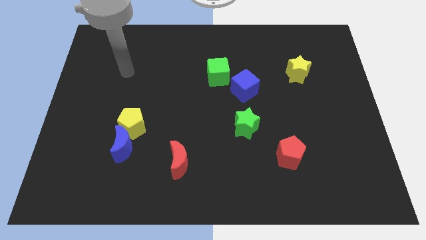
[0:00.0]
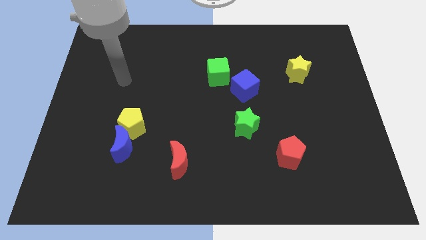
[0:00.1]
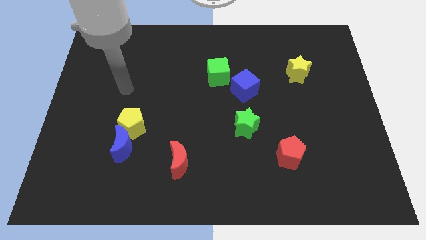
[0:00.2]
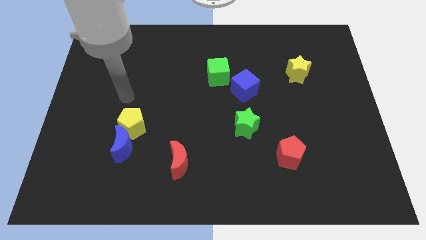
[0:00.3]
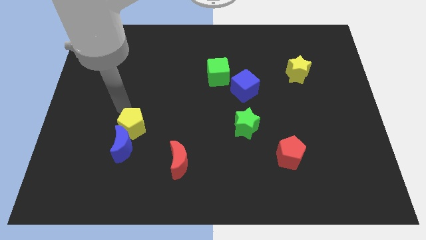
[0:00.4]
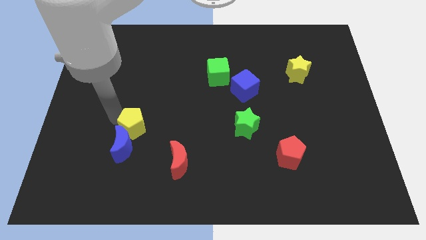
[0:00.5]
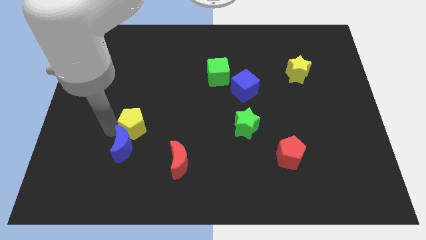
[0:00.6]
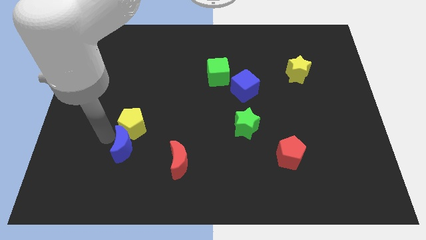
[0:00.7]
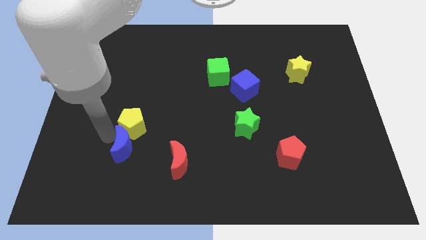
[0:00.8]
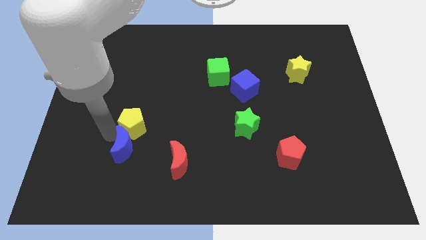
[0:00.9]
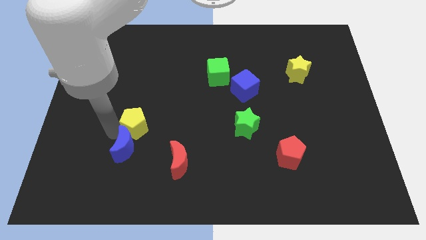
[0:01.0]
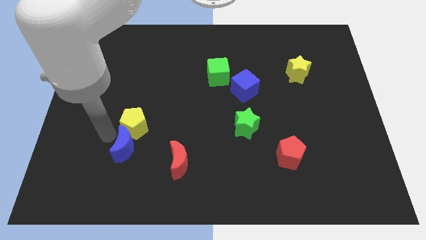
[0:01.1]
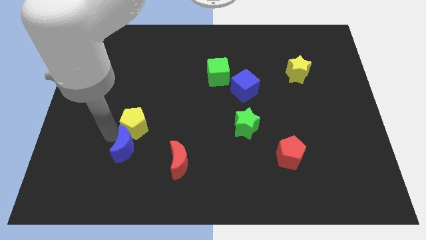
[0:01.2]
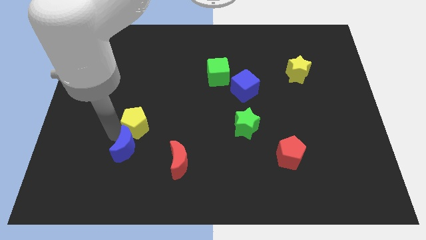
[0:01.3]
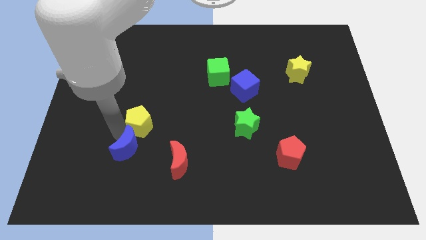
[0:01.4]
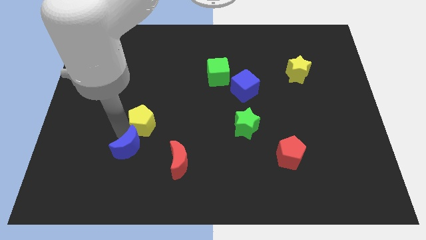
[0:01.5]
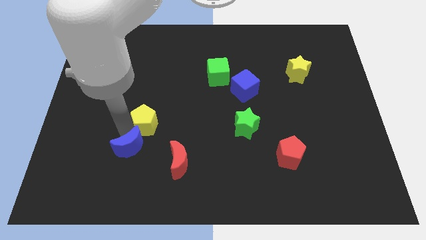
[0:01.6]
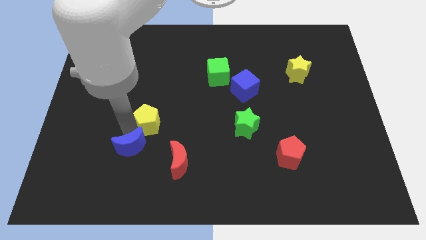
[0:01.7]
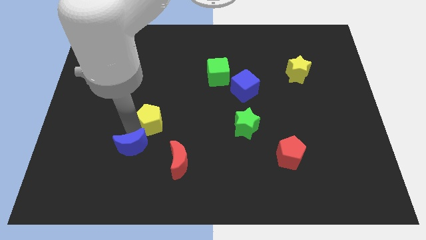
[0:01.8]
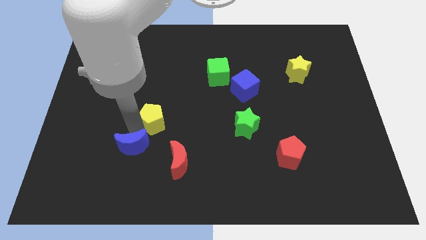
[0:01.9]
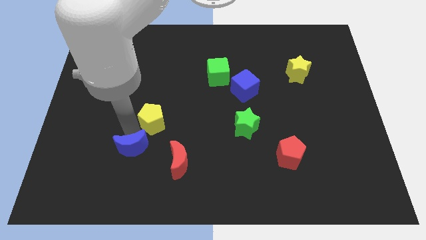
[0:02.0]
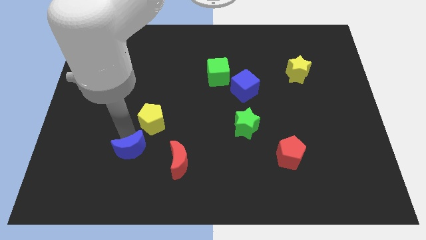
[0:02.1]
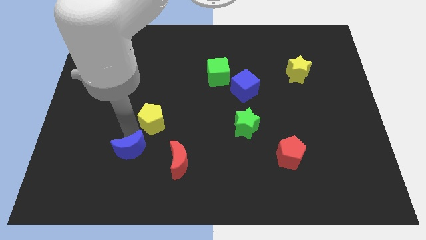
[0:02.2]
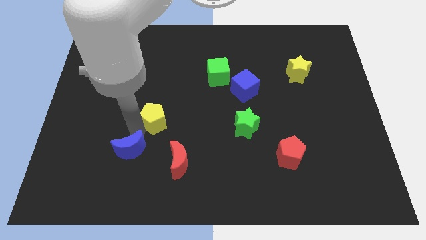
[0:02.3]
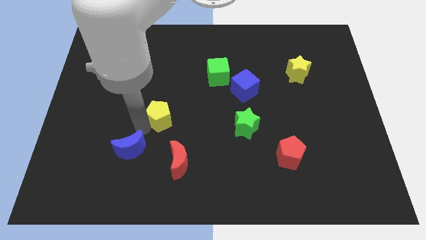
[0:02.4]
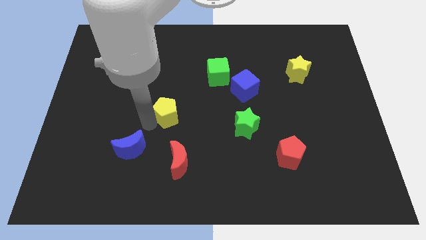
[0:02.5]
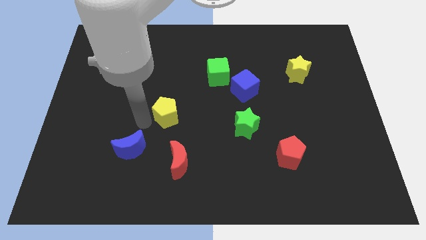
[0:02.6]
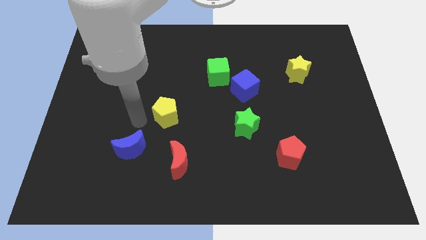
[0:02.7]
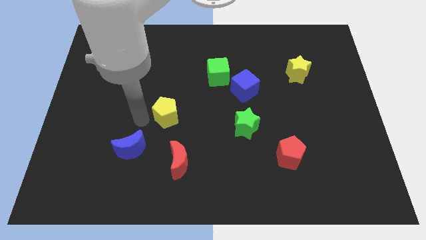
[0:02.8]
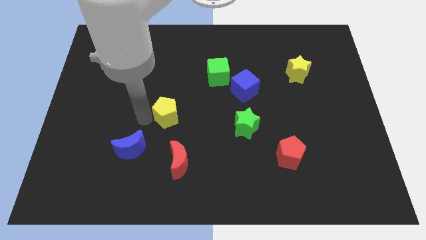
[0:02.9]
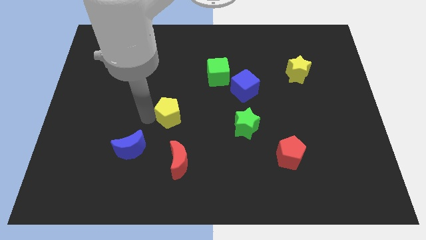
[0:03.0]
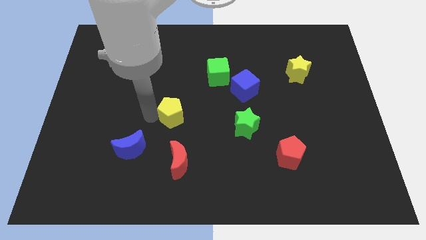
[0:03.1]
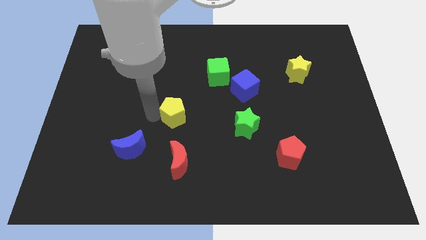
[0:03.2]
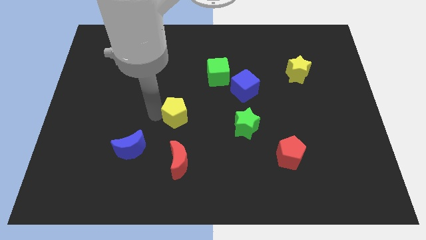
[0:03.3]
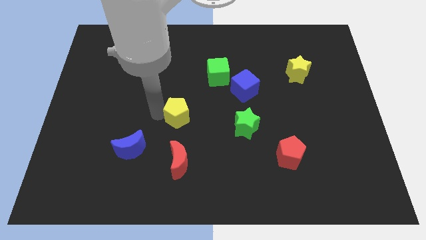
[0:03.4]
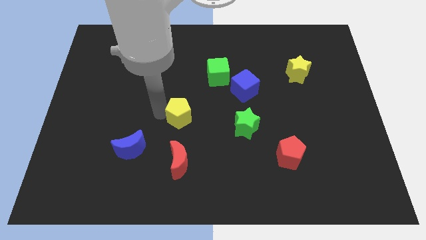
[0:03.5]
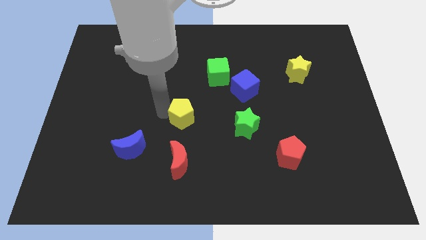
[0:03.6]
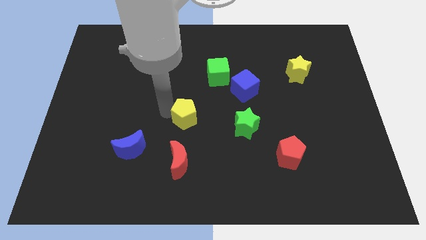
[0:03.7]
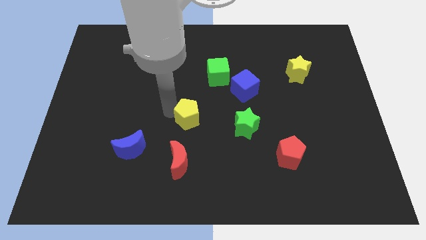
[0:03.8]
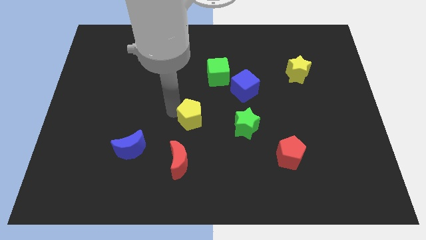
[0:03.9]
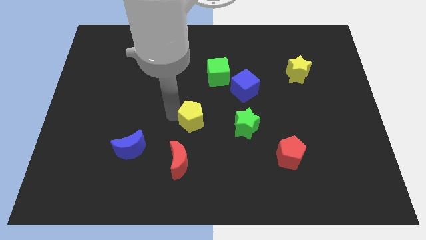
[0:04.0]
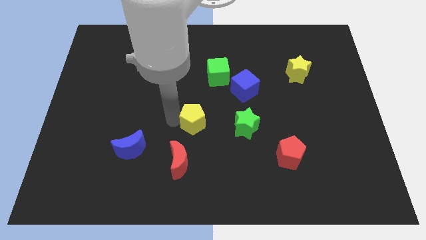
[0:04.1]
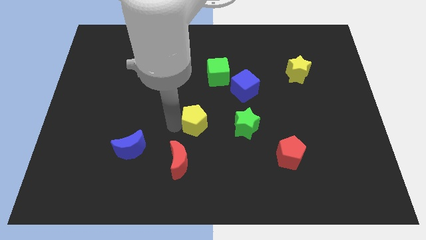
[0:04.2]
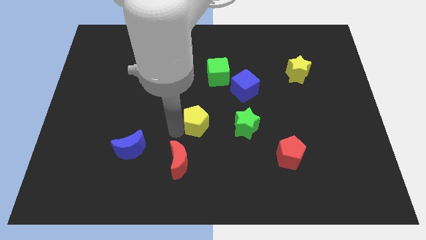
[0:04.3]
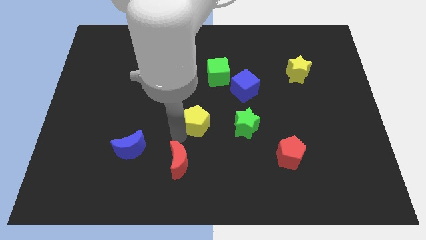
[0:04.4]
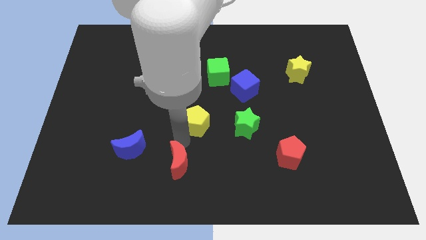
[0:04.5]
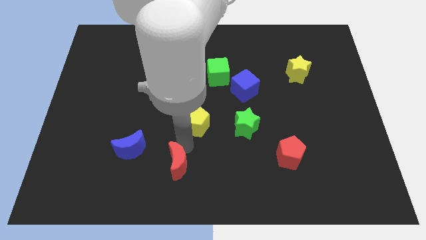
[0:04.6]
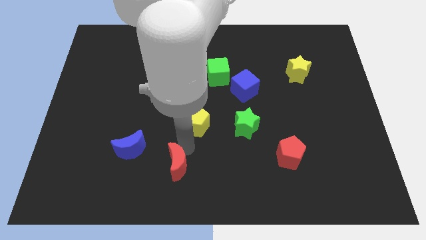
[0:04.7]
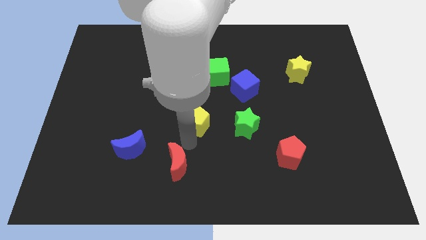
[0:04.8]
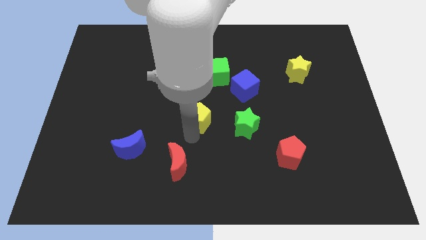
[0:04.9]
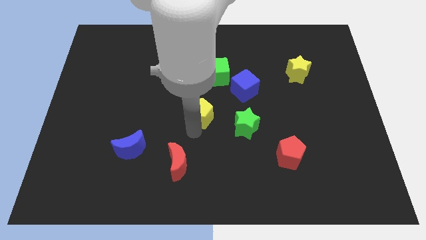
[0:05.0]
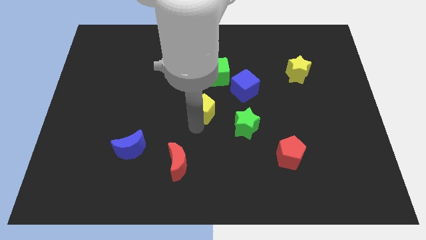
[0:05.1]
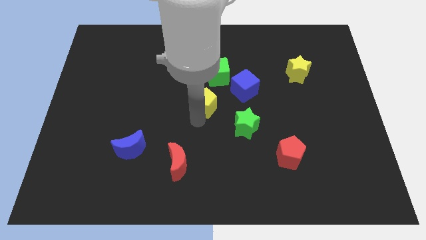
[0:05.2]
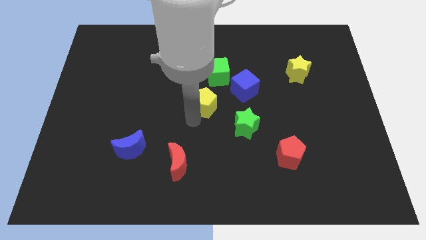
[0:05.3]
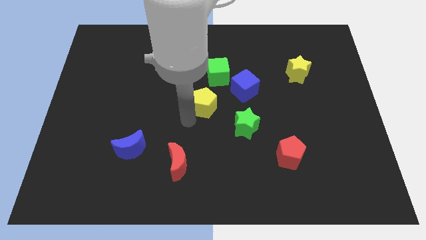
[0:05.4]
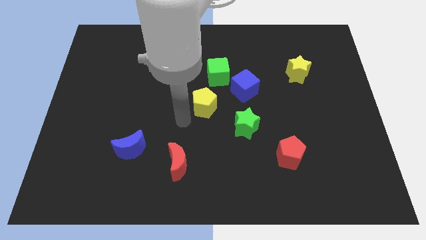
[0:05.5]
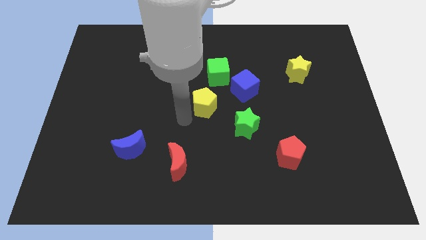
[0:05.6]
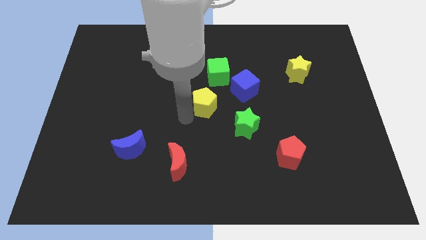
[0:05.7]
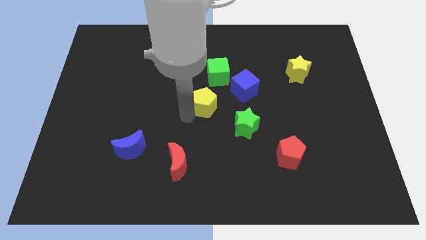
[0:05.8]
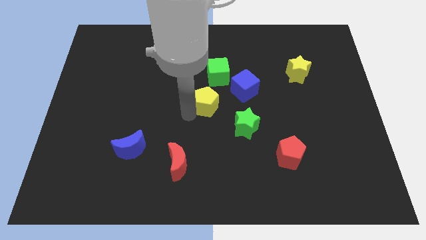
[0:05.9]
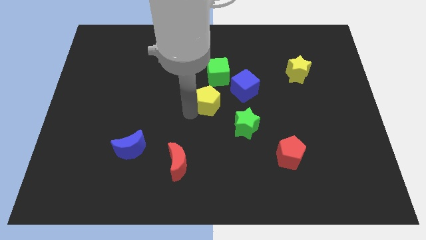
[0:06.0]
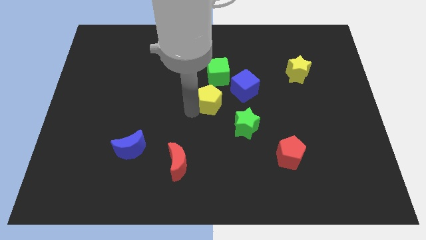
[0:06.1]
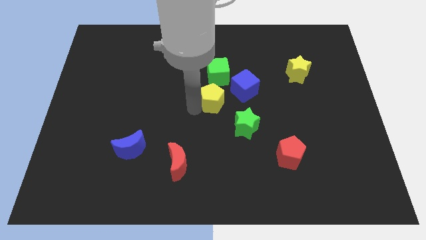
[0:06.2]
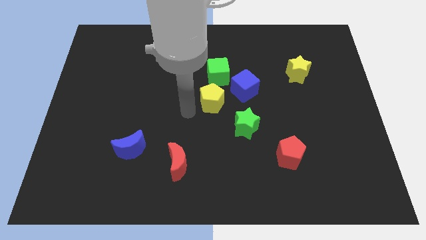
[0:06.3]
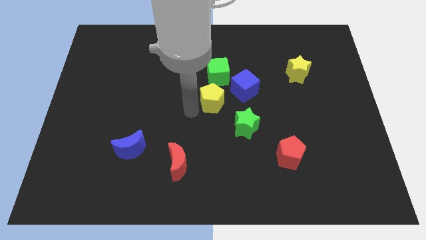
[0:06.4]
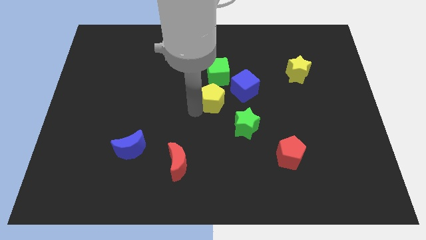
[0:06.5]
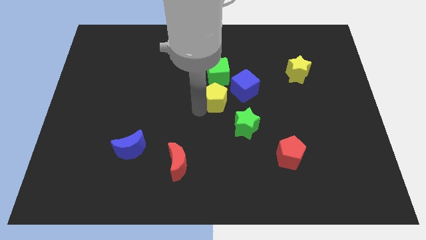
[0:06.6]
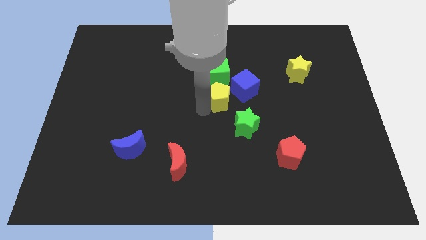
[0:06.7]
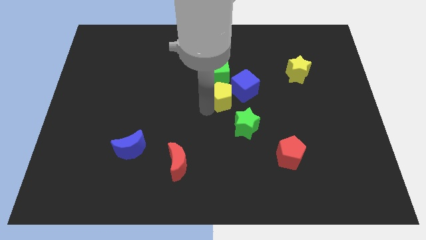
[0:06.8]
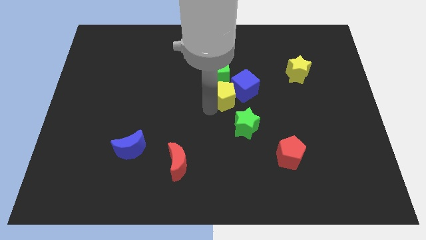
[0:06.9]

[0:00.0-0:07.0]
push the yellow pentagon towards the blue cube

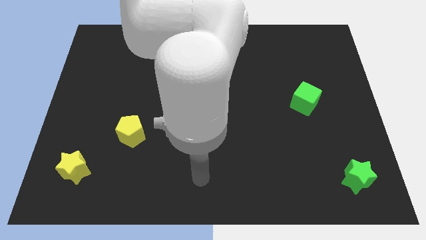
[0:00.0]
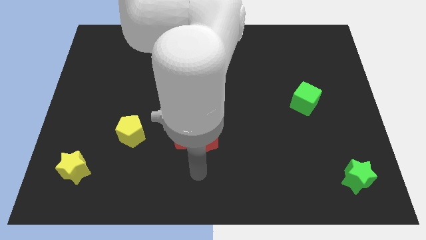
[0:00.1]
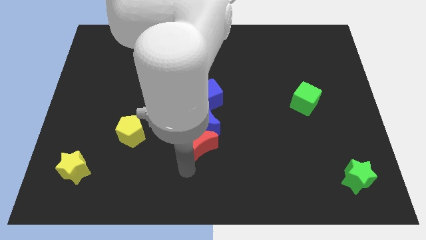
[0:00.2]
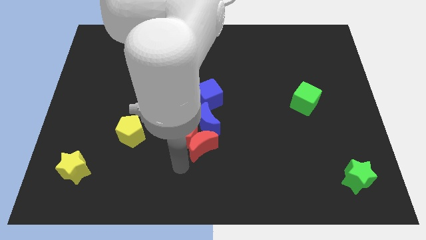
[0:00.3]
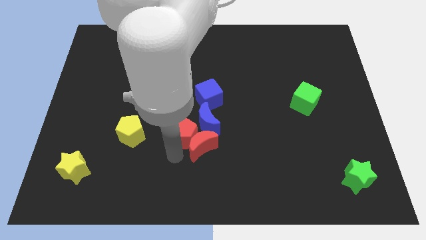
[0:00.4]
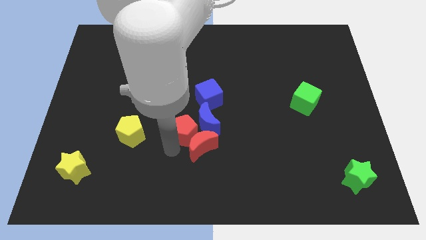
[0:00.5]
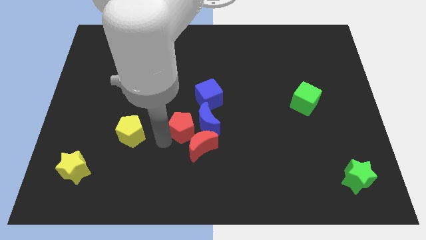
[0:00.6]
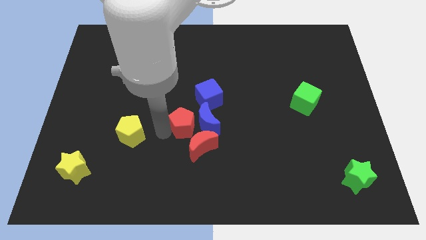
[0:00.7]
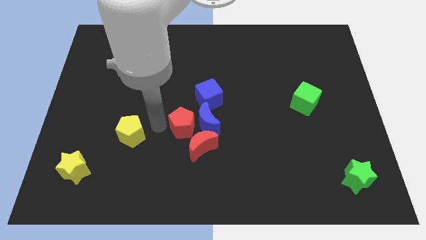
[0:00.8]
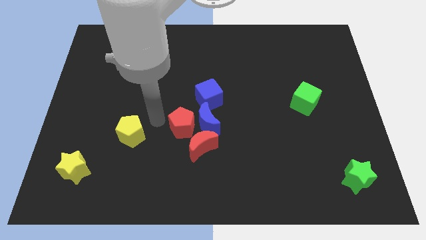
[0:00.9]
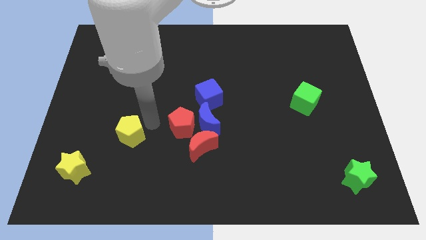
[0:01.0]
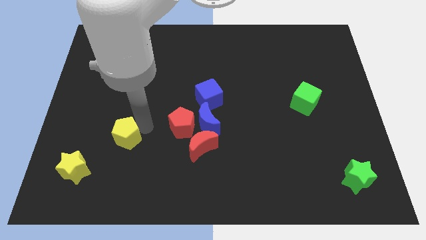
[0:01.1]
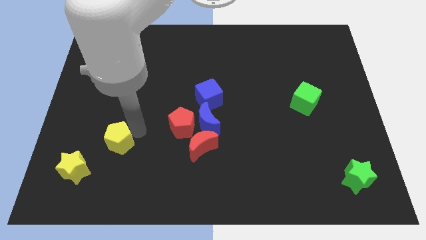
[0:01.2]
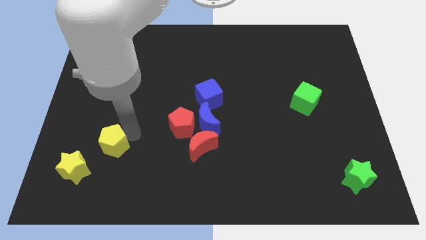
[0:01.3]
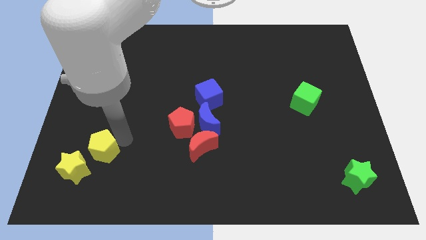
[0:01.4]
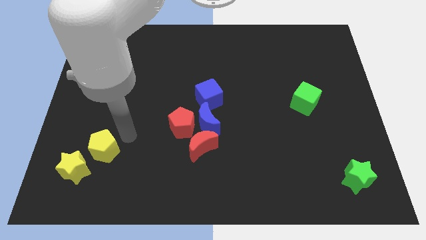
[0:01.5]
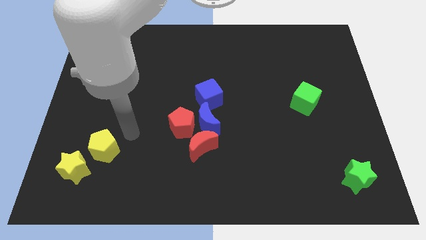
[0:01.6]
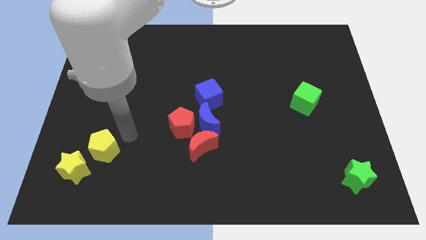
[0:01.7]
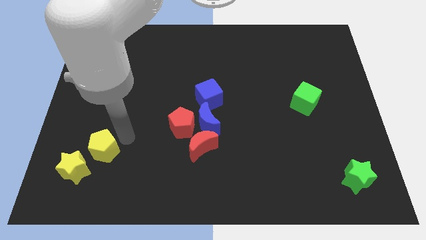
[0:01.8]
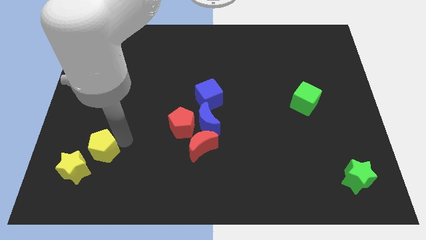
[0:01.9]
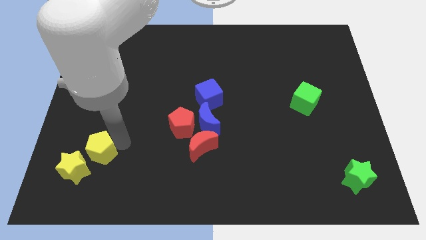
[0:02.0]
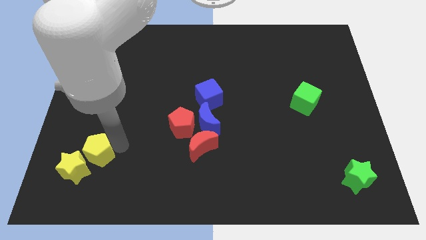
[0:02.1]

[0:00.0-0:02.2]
put the yellow pentagon next to the yellow star
